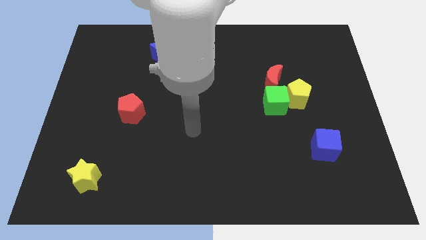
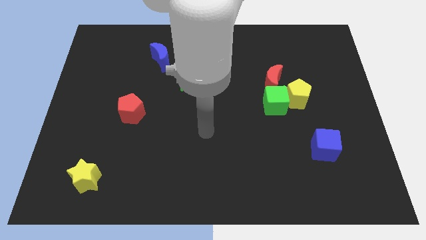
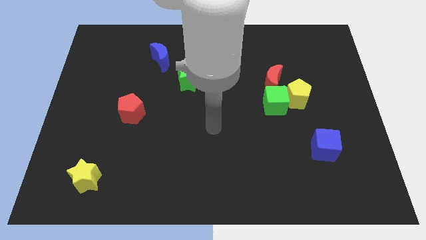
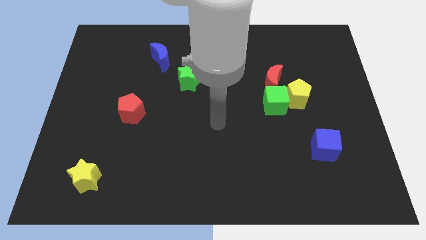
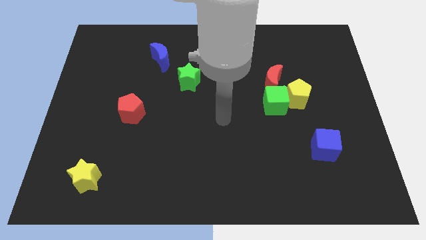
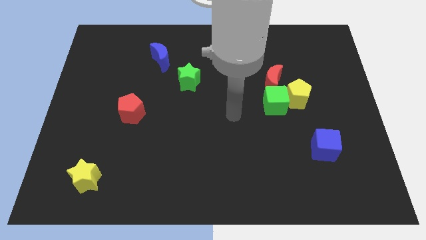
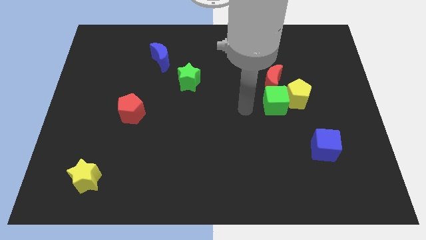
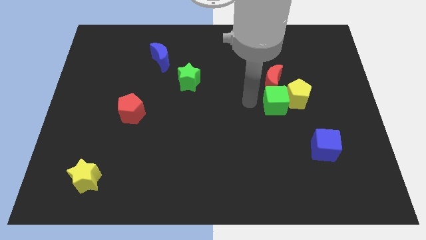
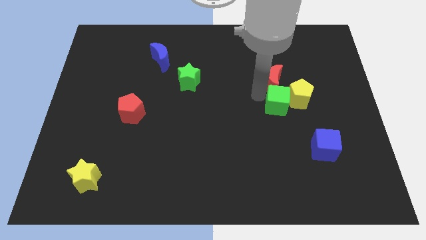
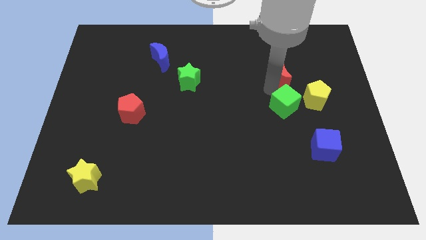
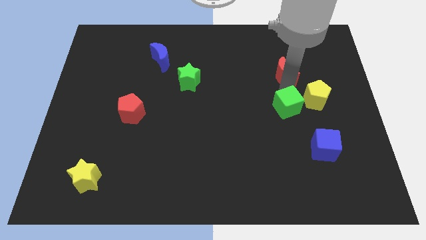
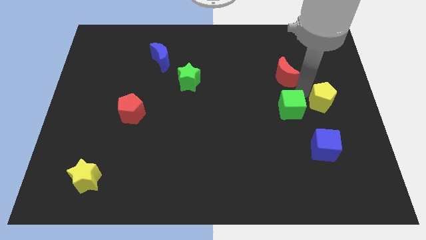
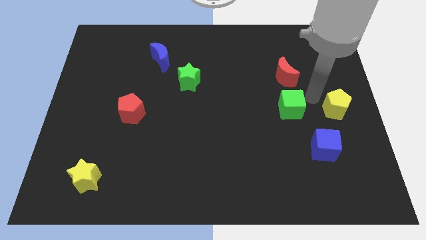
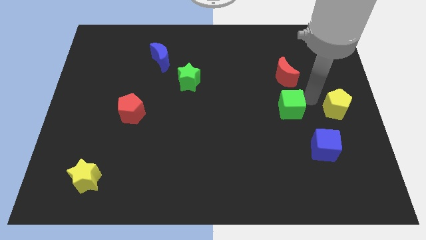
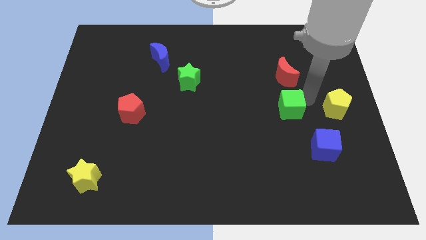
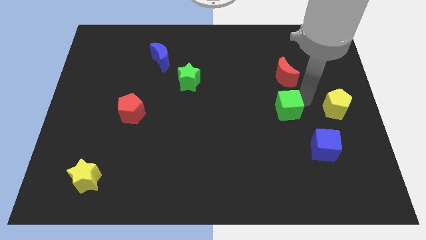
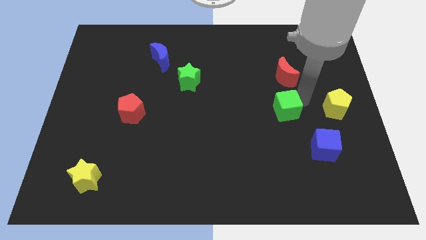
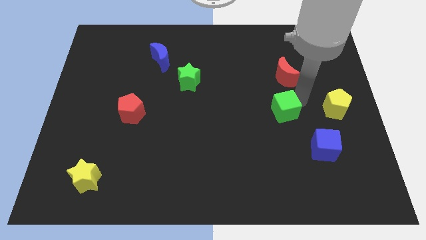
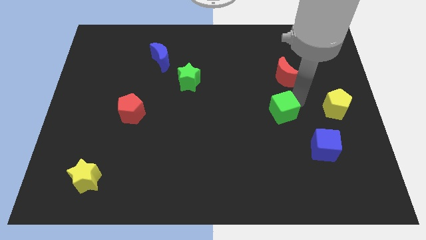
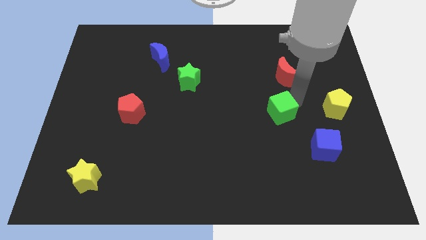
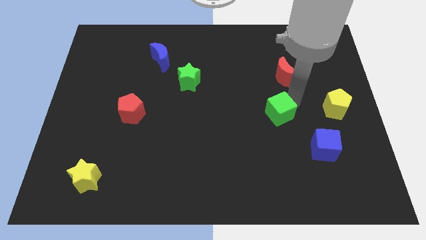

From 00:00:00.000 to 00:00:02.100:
pull the green cube apart from the yellow pentagon and red moon

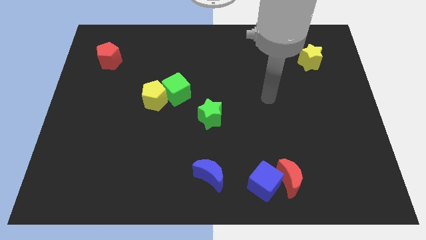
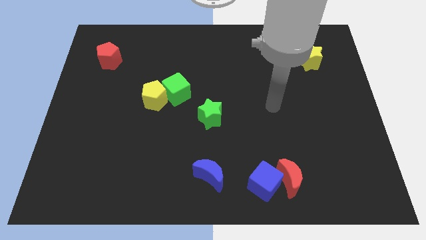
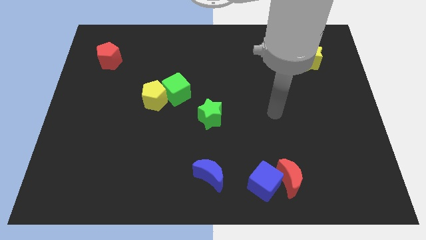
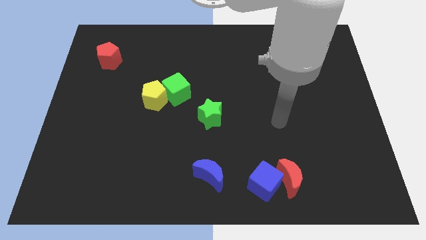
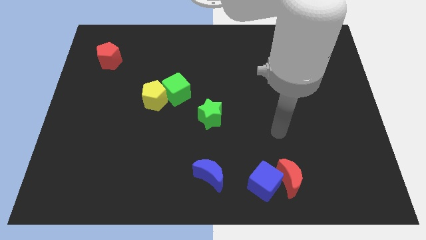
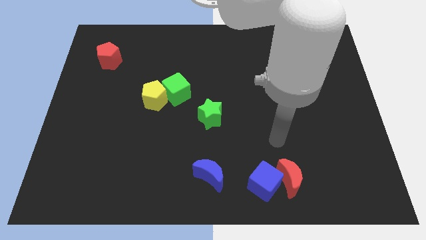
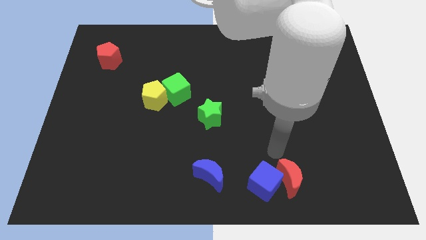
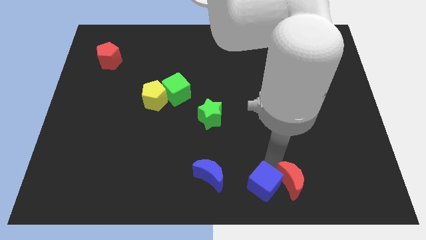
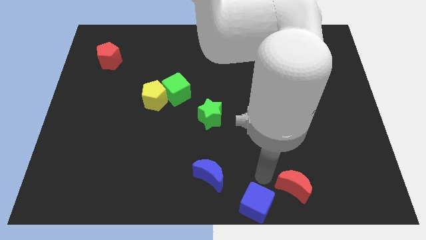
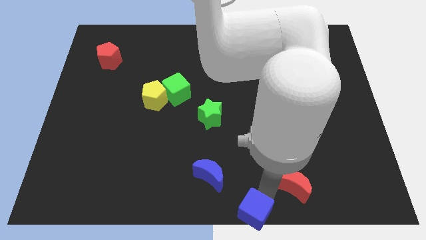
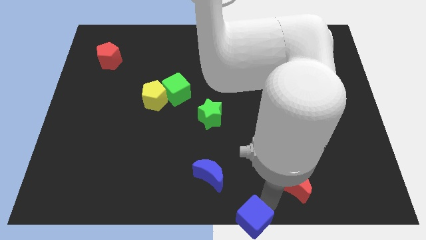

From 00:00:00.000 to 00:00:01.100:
separate the red moon from the blue cube

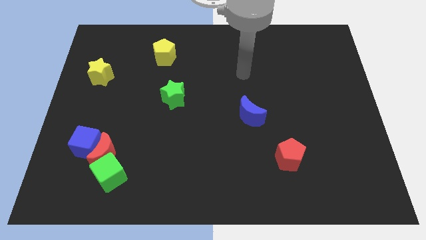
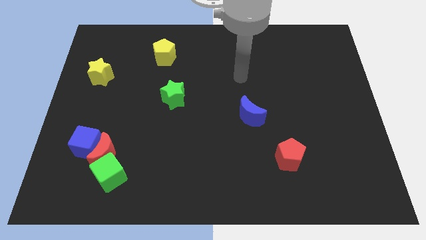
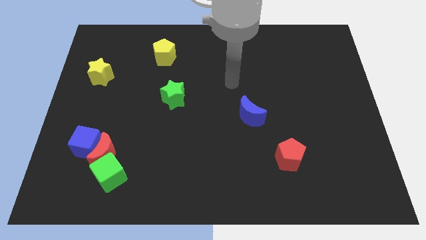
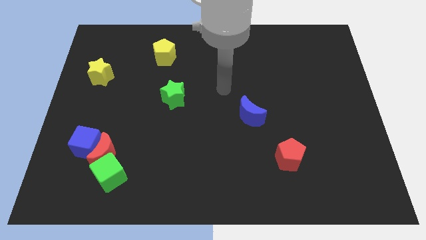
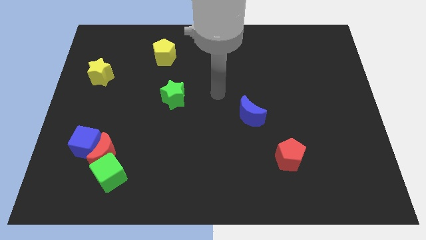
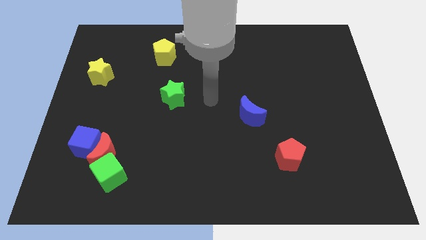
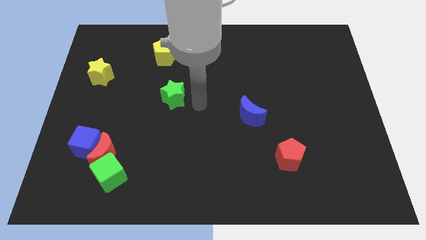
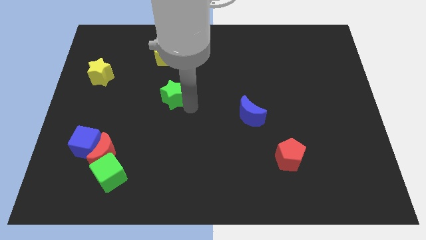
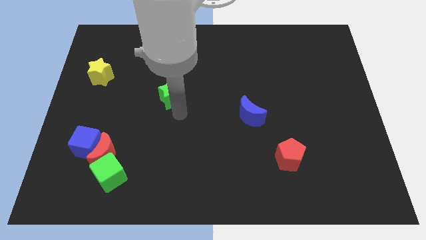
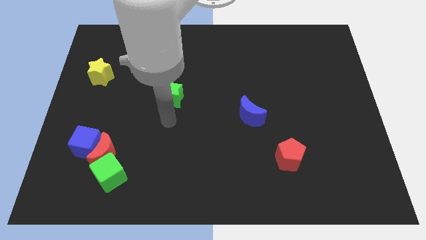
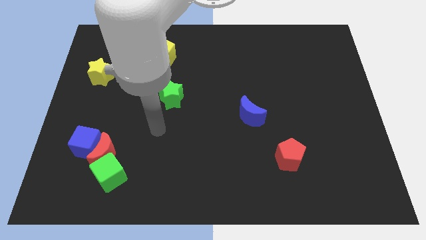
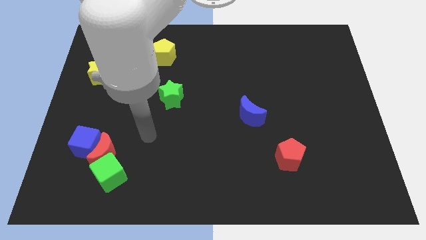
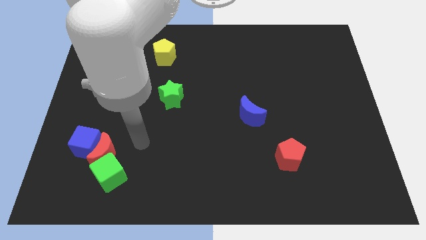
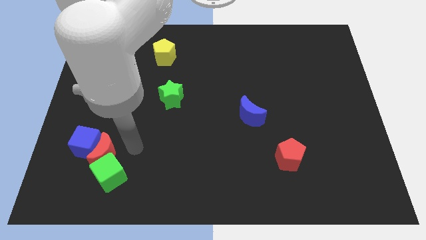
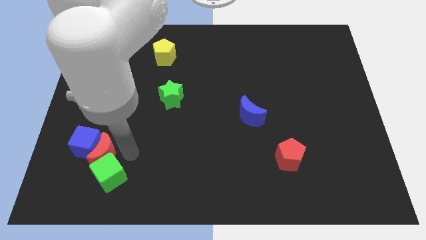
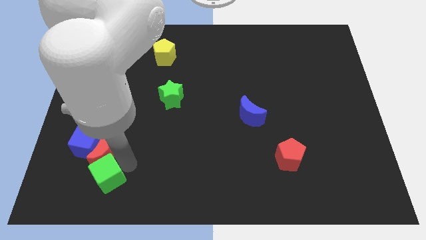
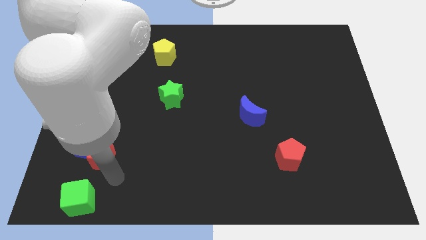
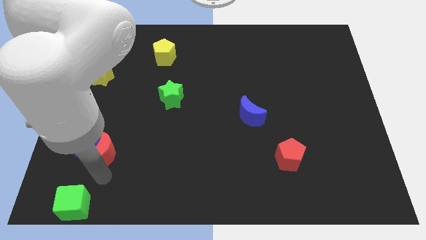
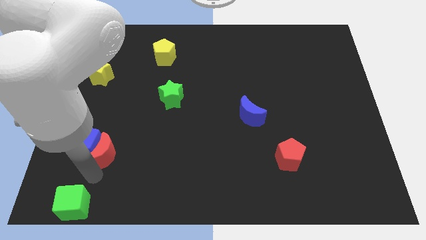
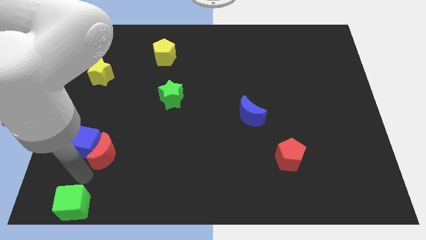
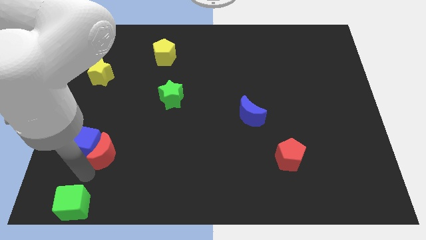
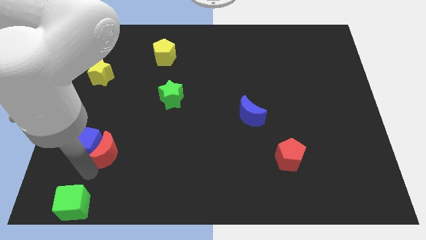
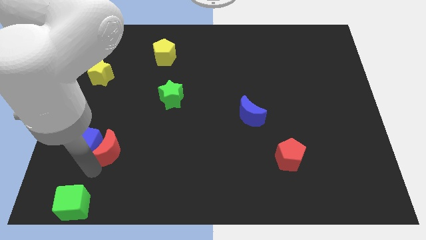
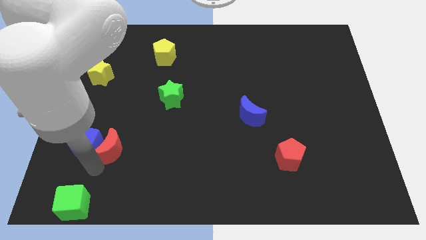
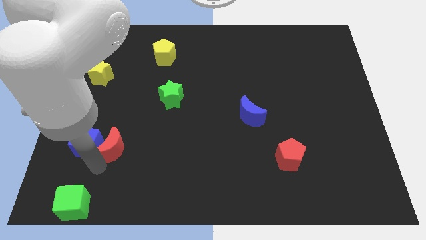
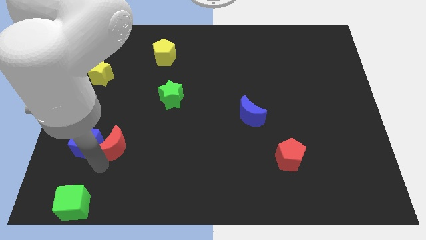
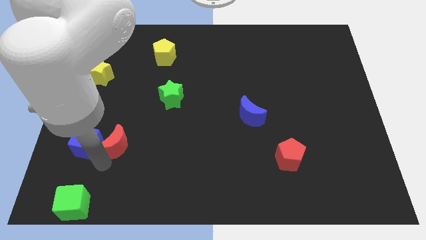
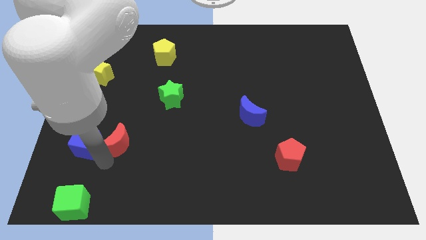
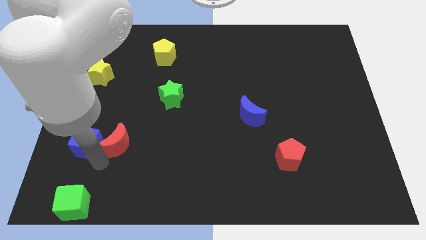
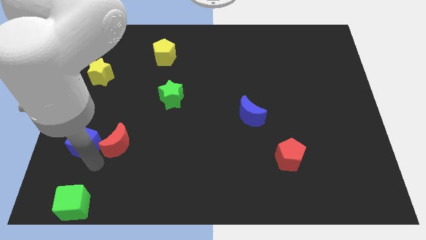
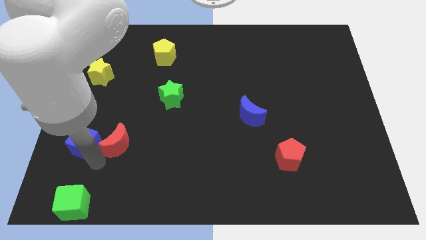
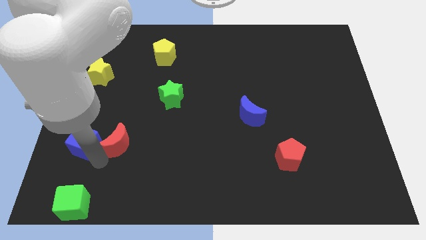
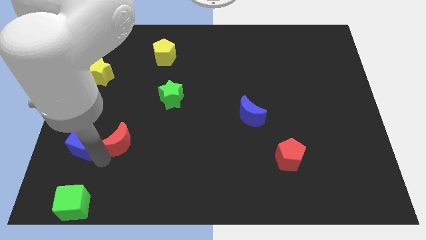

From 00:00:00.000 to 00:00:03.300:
separate the red moon from the blue cube and green cube

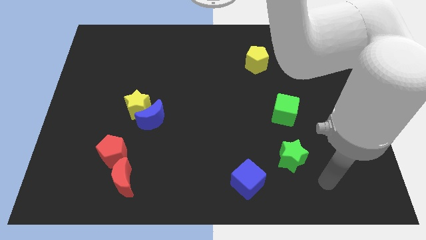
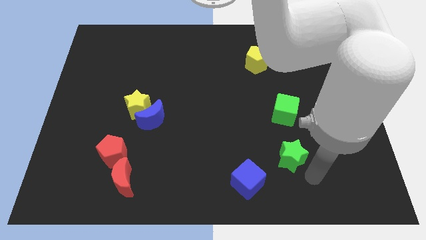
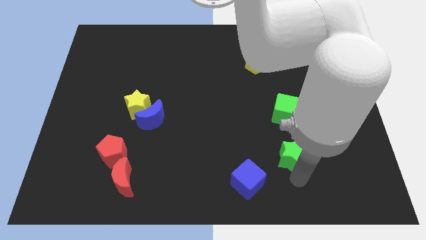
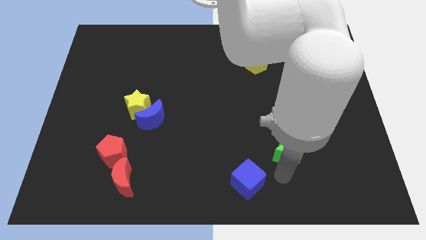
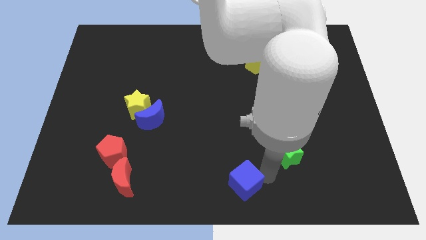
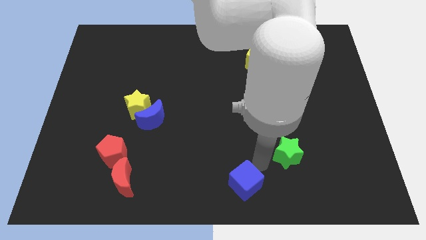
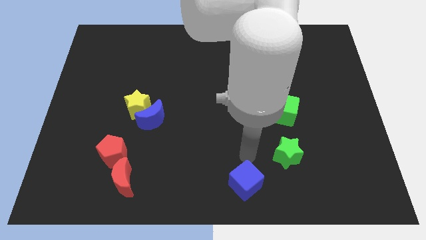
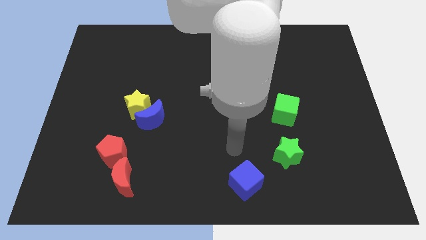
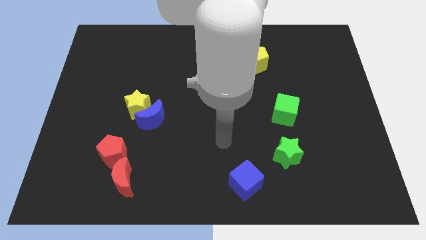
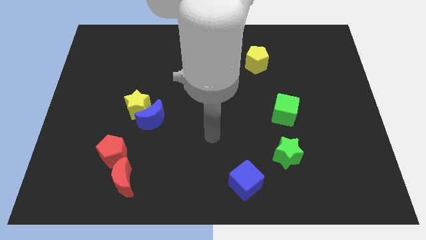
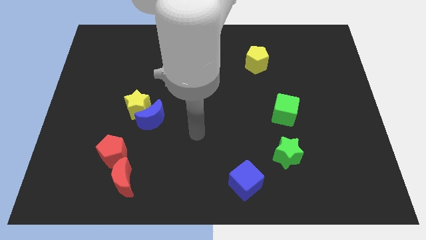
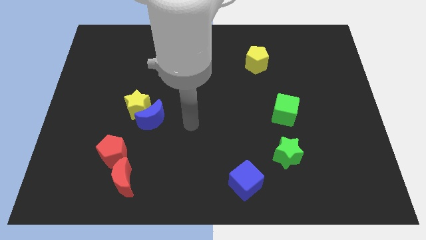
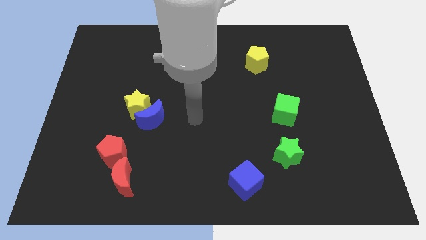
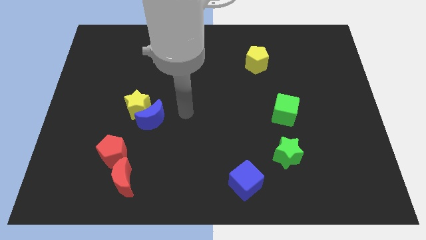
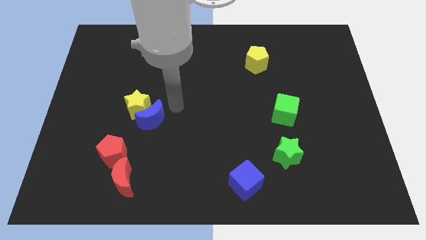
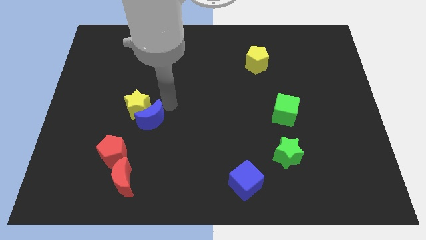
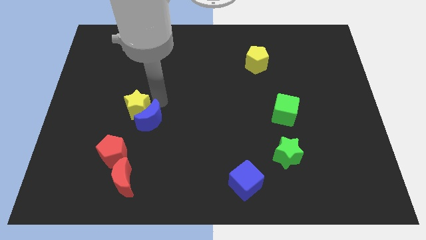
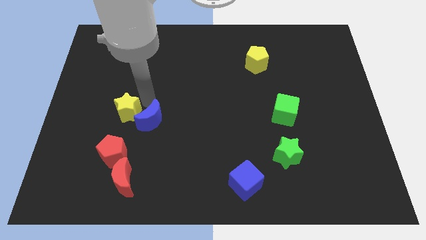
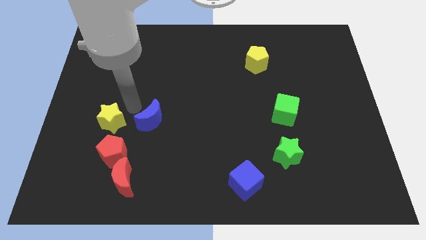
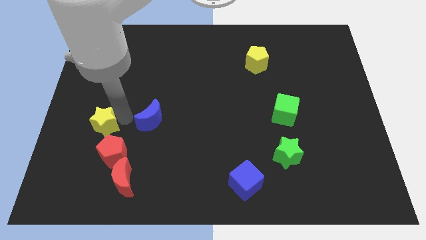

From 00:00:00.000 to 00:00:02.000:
move the blue moon away from the yellow star

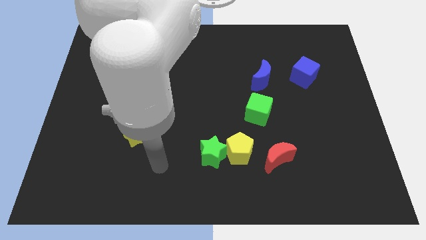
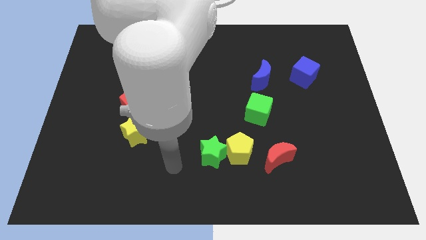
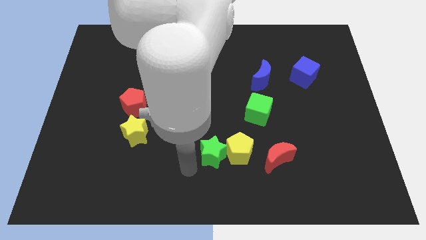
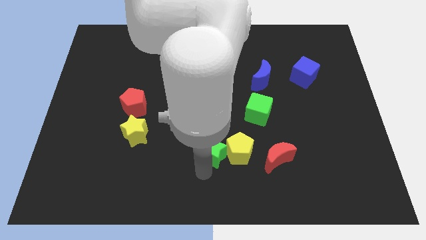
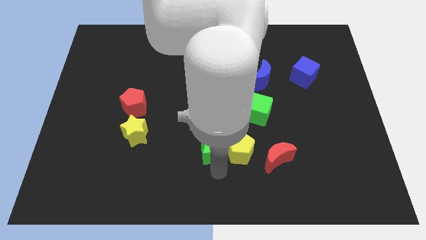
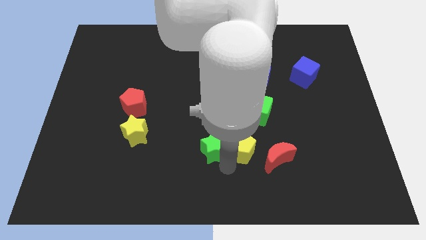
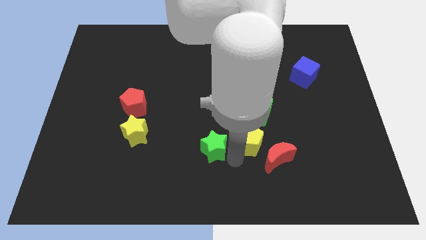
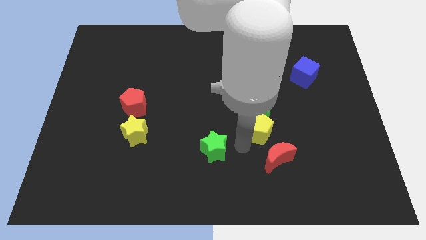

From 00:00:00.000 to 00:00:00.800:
separate the green star from the yellow pentagon
